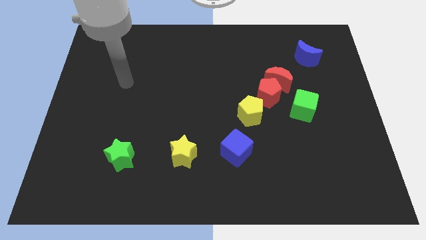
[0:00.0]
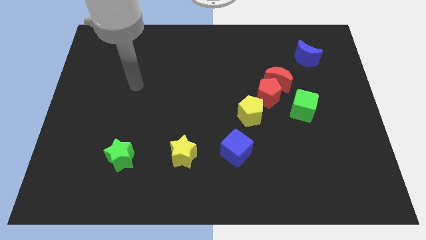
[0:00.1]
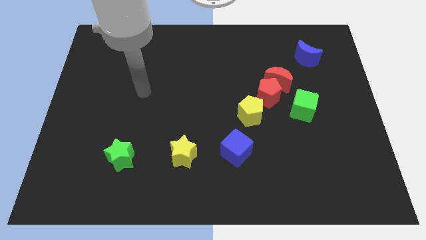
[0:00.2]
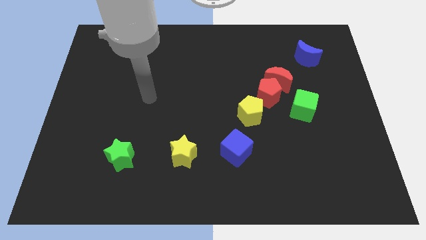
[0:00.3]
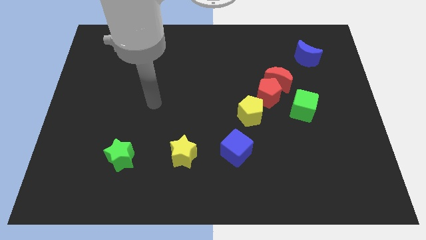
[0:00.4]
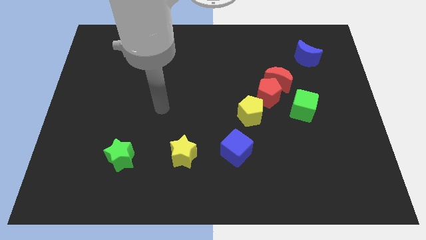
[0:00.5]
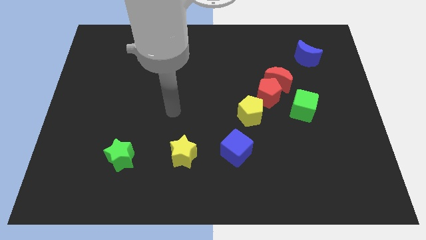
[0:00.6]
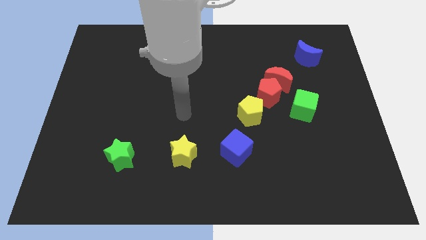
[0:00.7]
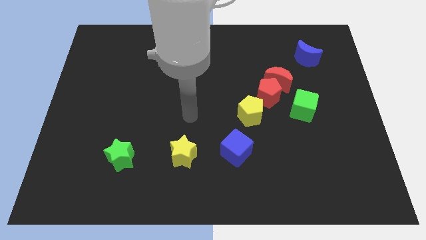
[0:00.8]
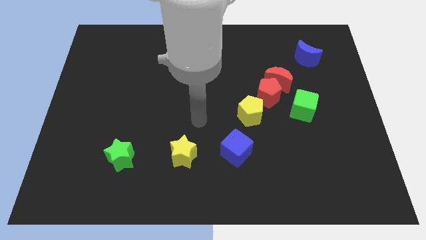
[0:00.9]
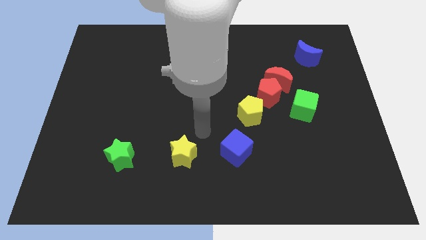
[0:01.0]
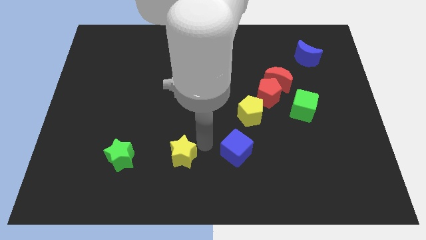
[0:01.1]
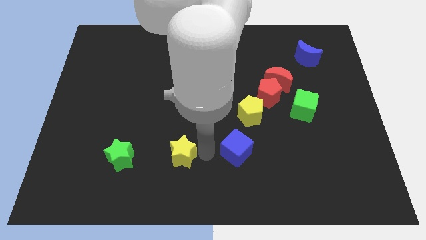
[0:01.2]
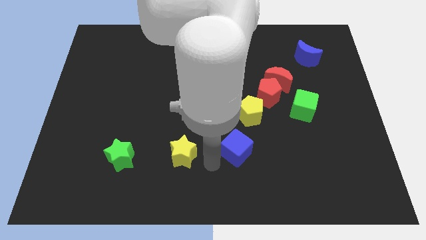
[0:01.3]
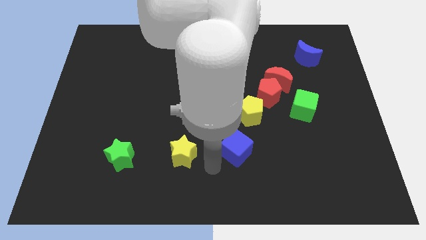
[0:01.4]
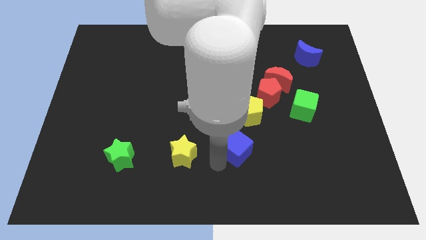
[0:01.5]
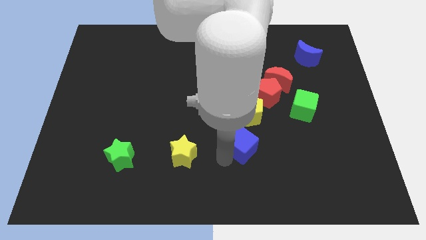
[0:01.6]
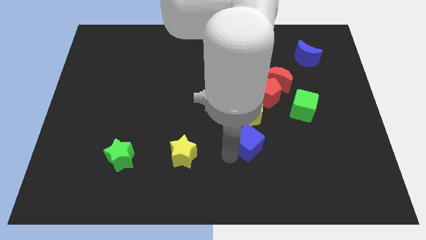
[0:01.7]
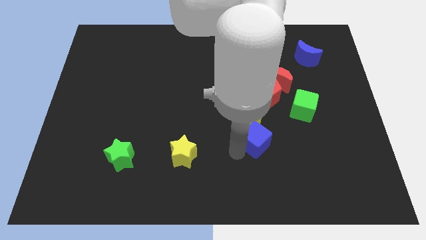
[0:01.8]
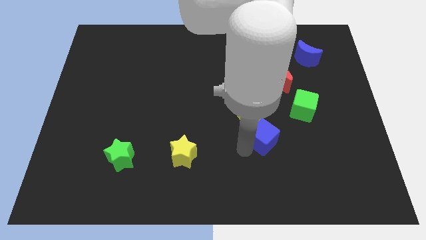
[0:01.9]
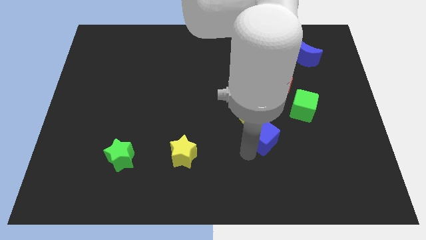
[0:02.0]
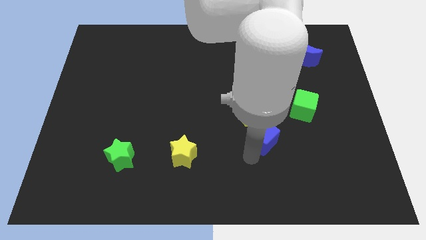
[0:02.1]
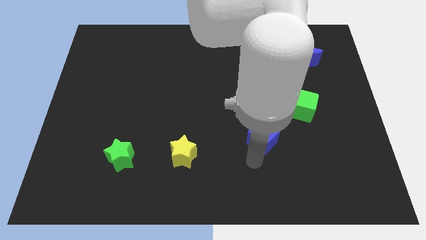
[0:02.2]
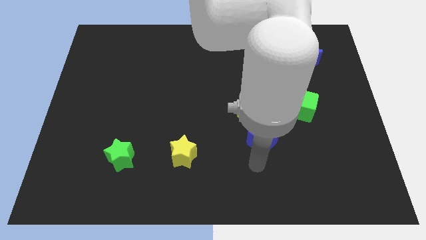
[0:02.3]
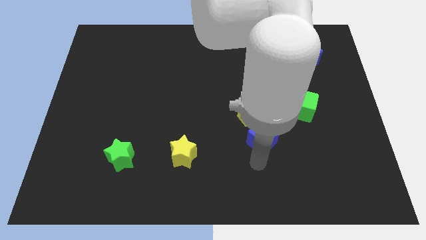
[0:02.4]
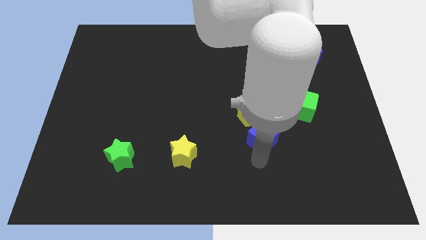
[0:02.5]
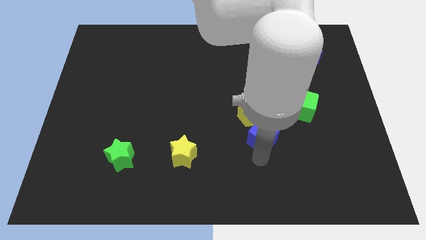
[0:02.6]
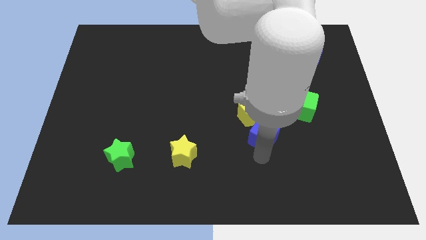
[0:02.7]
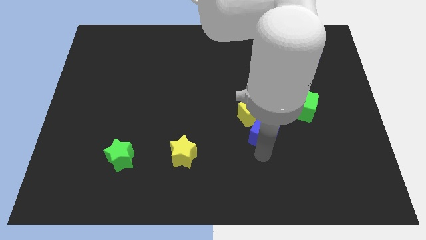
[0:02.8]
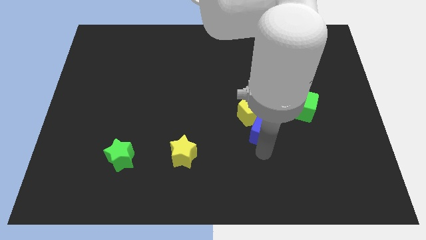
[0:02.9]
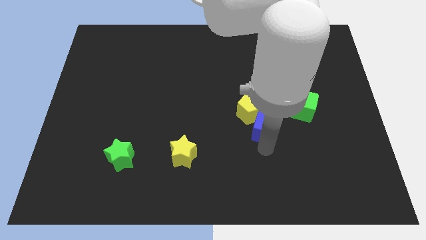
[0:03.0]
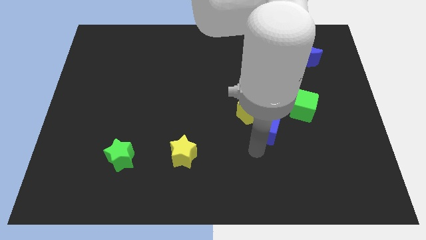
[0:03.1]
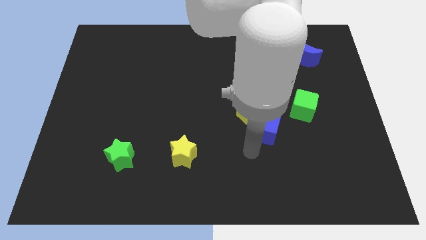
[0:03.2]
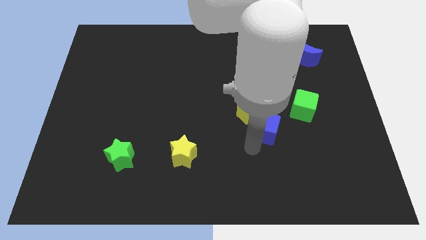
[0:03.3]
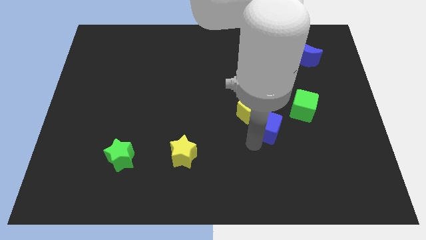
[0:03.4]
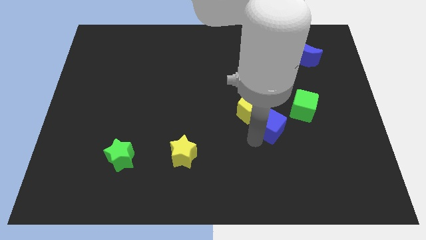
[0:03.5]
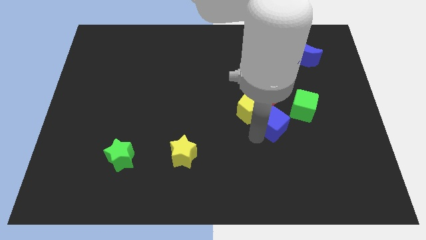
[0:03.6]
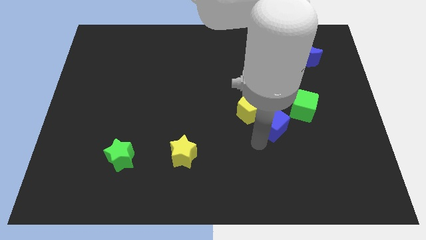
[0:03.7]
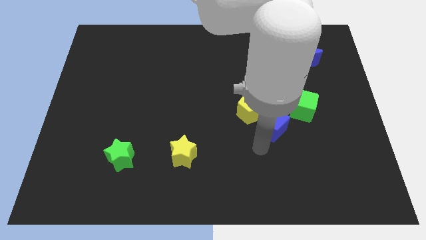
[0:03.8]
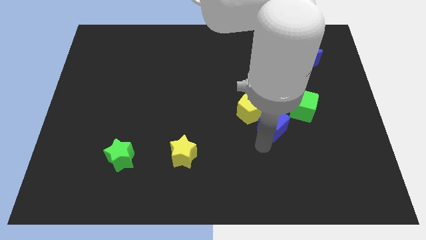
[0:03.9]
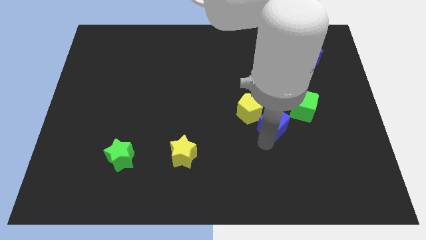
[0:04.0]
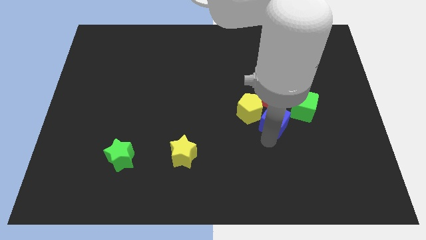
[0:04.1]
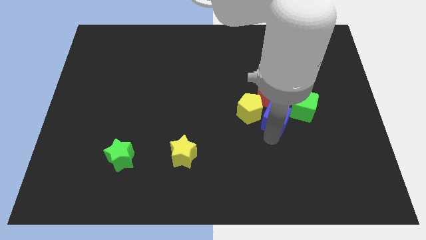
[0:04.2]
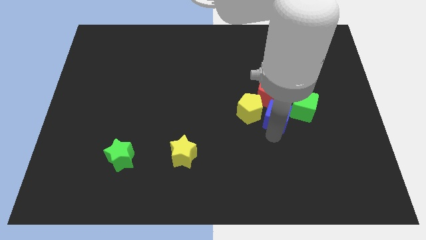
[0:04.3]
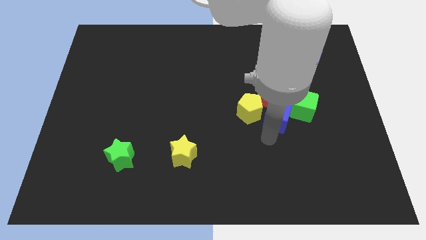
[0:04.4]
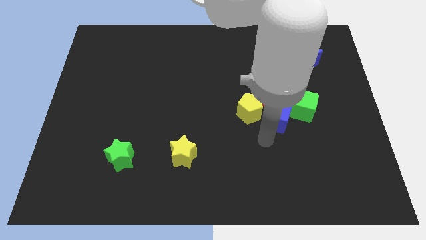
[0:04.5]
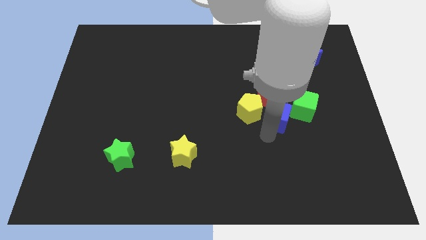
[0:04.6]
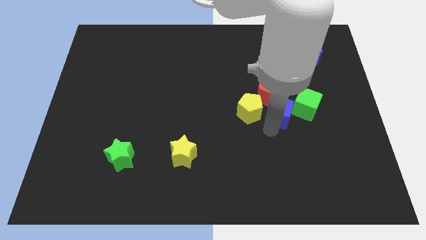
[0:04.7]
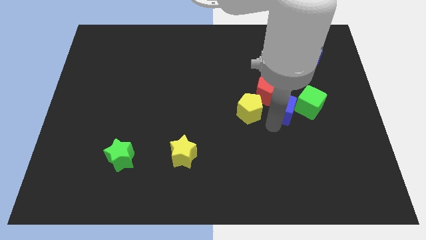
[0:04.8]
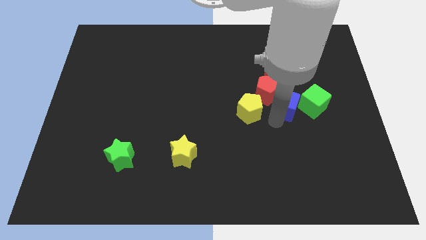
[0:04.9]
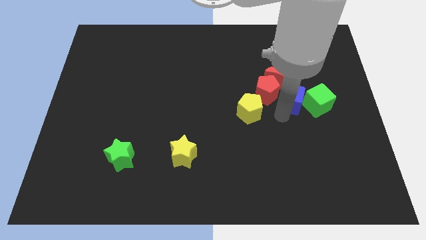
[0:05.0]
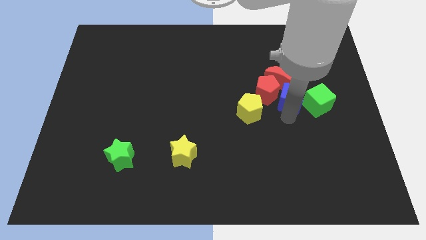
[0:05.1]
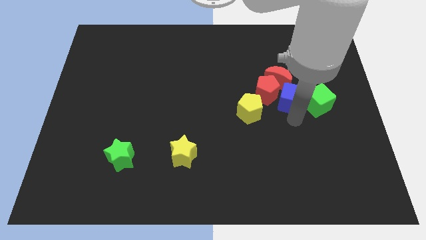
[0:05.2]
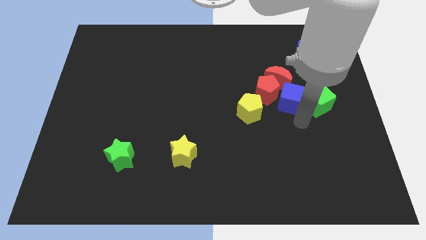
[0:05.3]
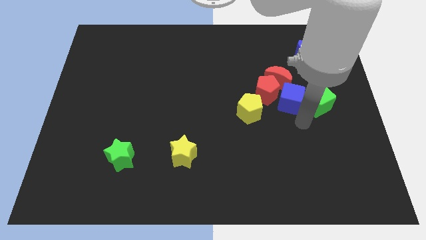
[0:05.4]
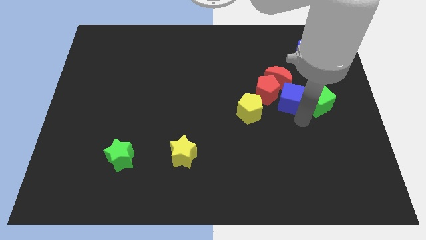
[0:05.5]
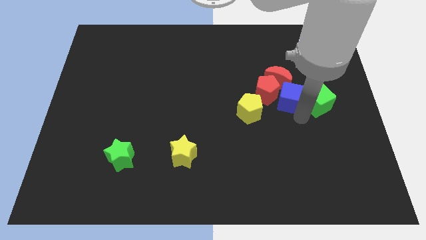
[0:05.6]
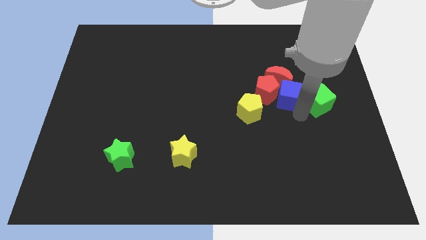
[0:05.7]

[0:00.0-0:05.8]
slide the blue cube to the red moon

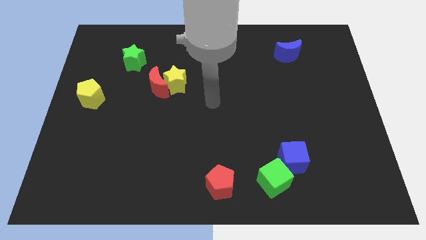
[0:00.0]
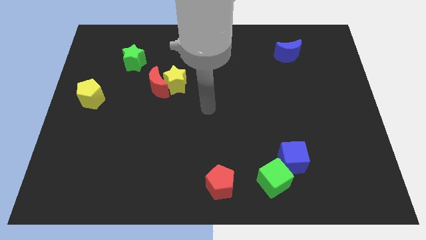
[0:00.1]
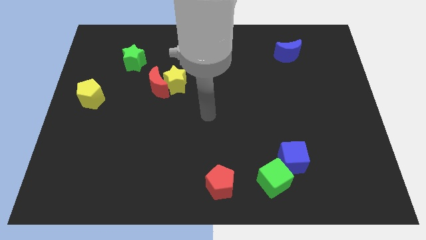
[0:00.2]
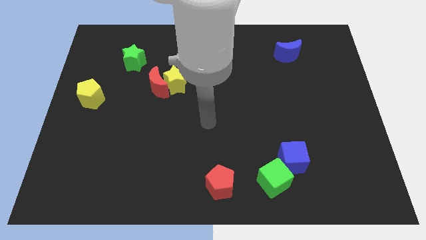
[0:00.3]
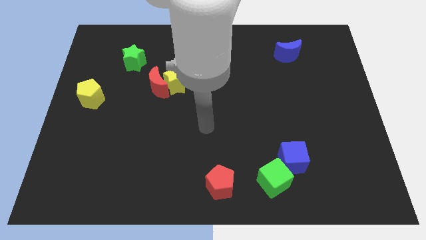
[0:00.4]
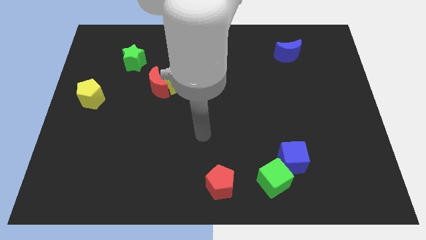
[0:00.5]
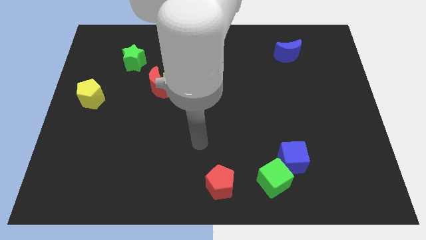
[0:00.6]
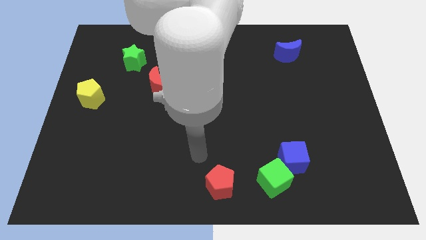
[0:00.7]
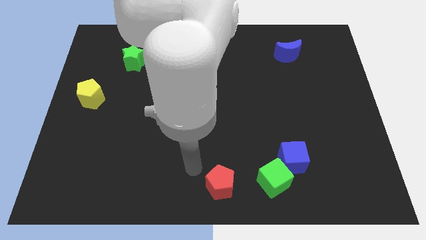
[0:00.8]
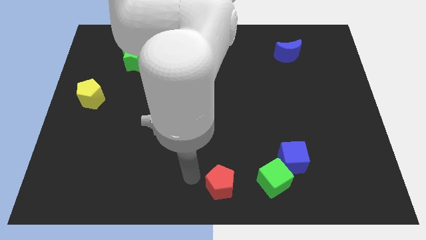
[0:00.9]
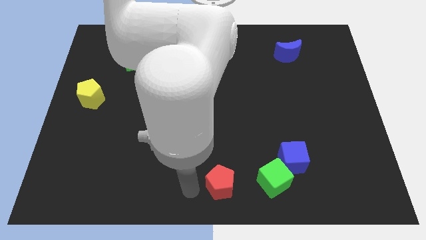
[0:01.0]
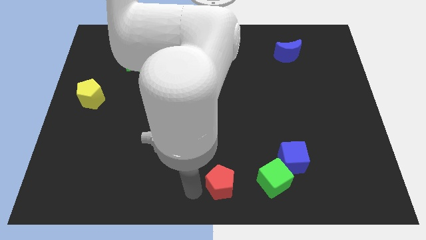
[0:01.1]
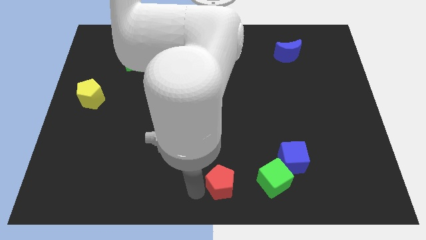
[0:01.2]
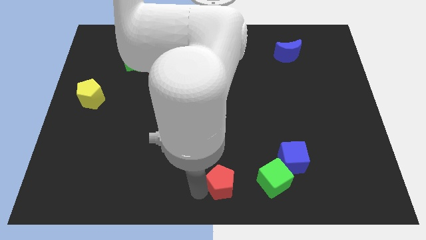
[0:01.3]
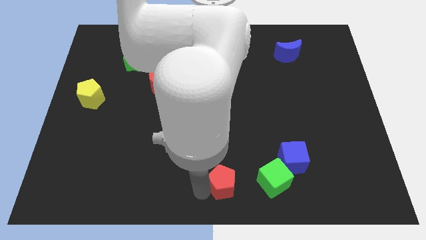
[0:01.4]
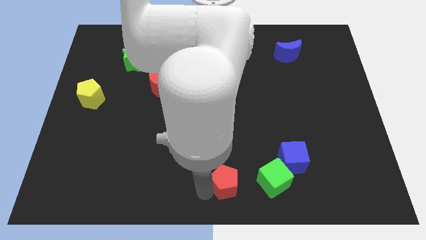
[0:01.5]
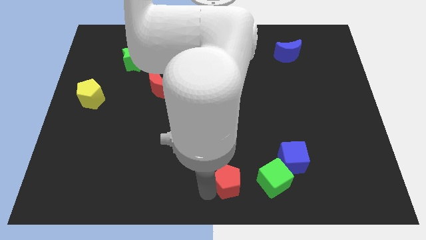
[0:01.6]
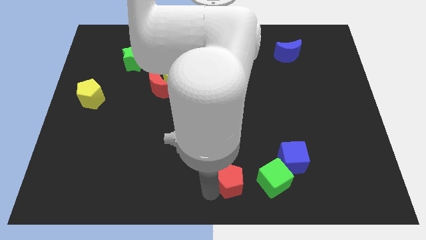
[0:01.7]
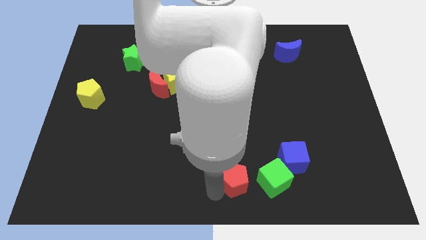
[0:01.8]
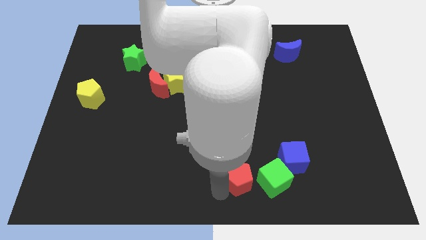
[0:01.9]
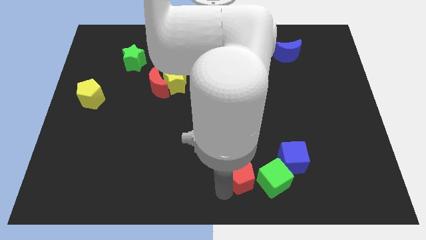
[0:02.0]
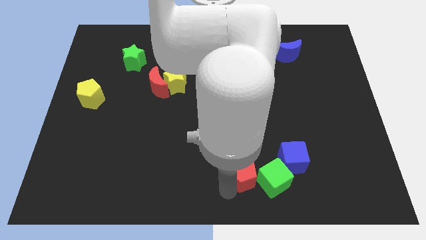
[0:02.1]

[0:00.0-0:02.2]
push the red pentagon next to the green cube

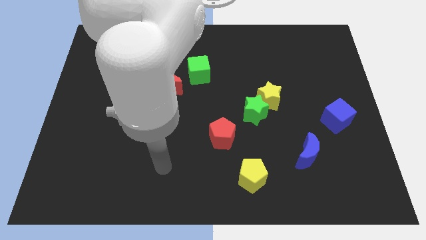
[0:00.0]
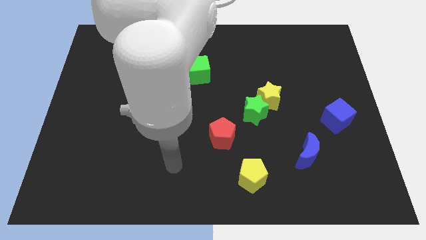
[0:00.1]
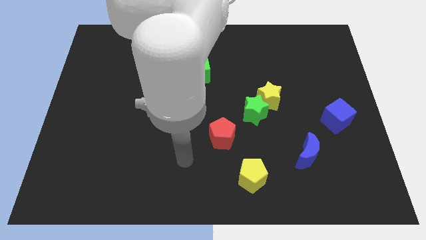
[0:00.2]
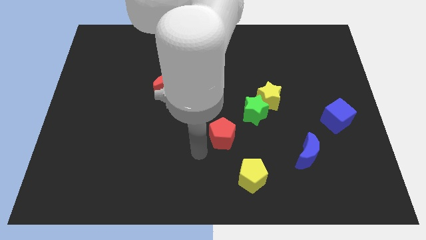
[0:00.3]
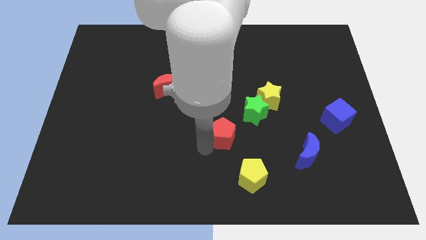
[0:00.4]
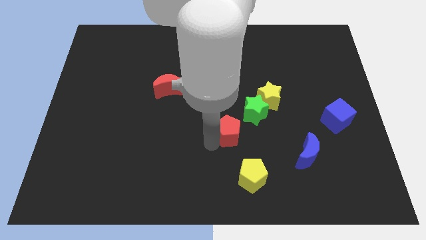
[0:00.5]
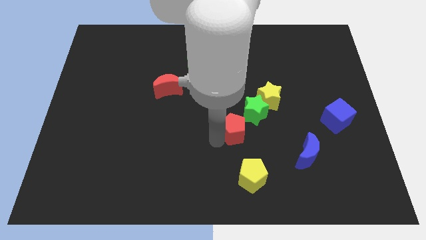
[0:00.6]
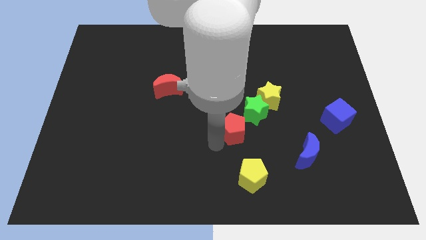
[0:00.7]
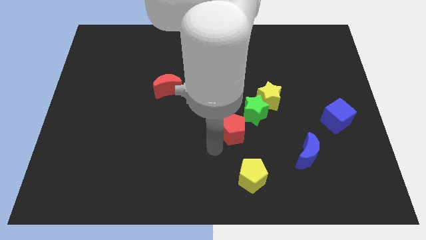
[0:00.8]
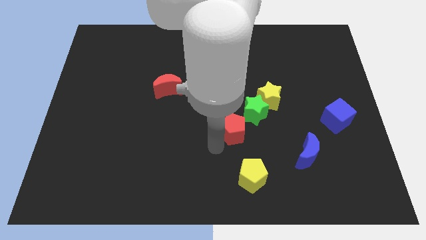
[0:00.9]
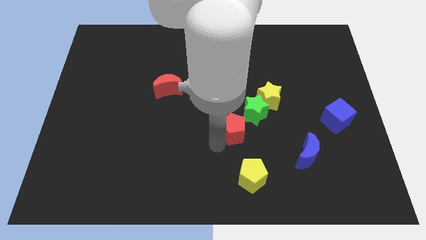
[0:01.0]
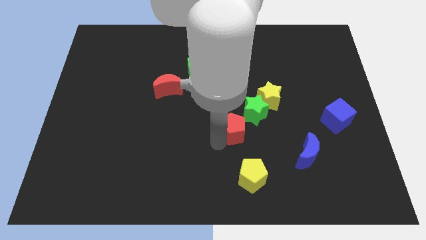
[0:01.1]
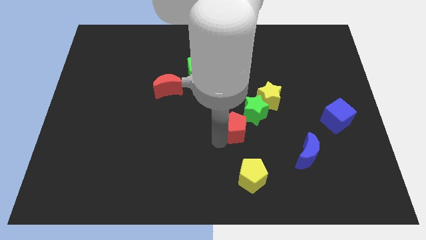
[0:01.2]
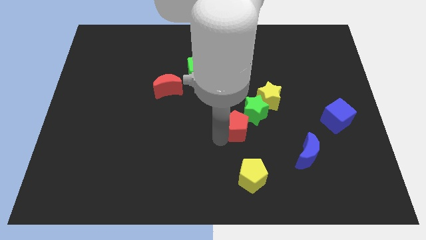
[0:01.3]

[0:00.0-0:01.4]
move the red pentagon close to the green star
